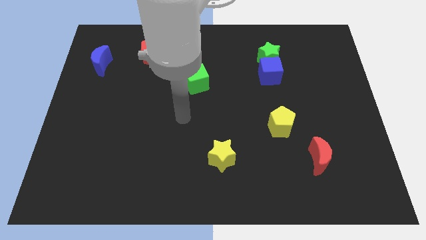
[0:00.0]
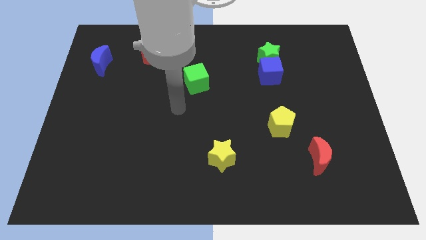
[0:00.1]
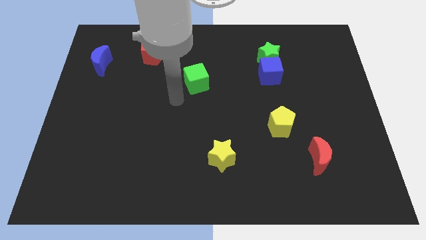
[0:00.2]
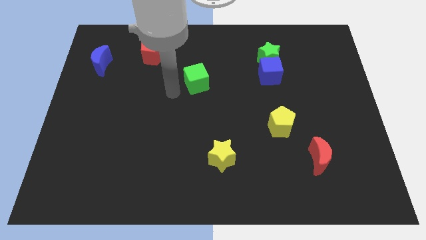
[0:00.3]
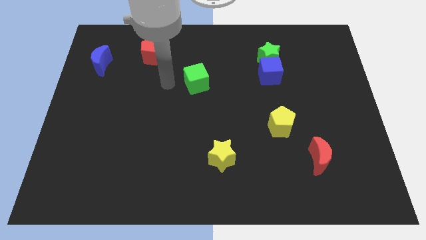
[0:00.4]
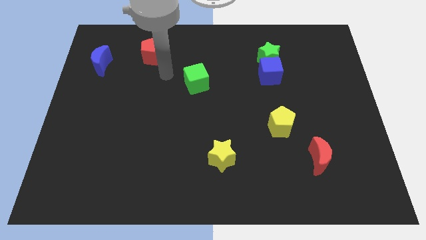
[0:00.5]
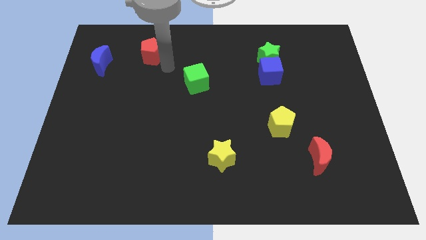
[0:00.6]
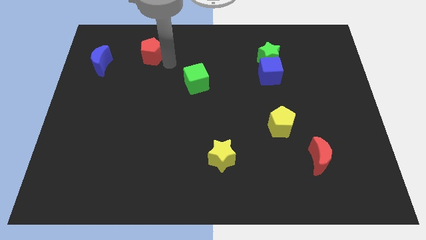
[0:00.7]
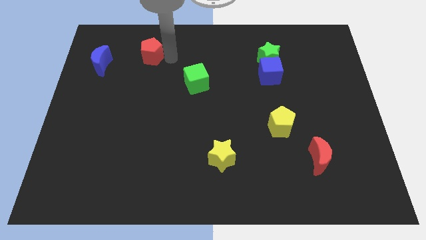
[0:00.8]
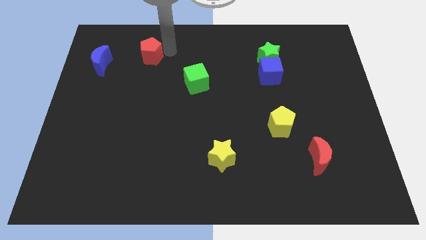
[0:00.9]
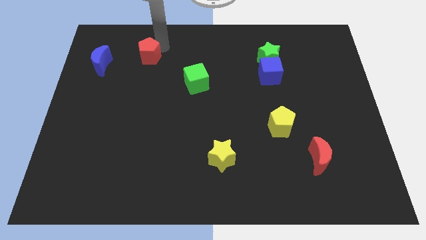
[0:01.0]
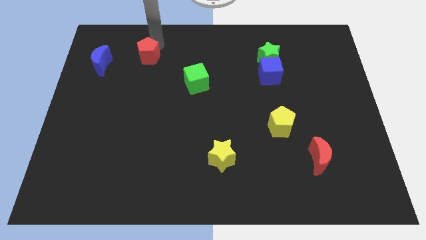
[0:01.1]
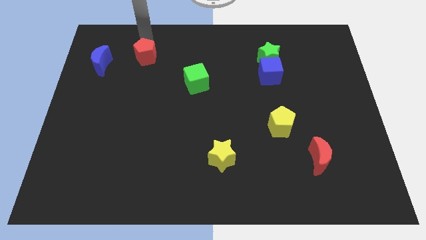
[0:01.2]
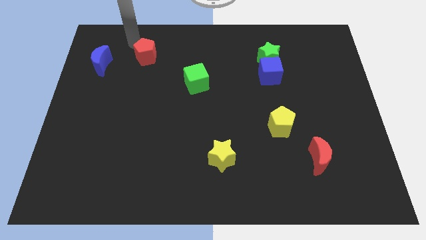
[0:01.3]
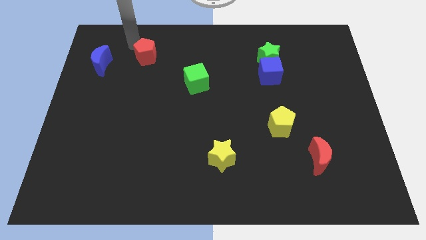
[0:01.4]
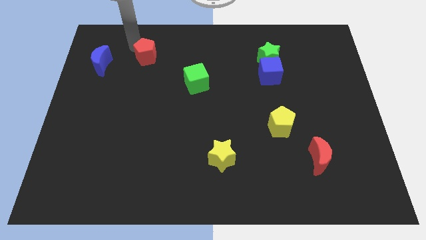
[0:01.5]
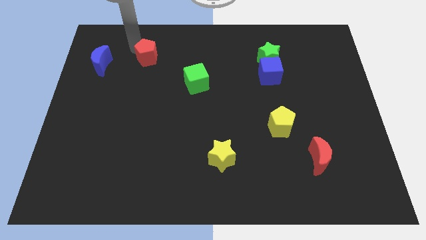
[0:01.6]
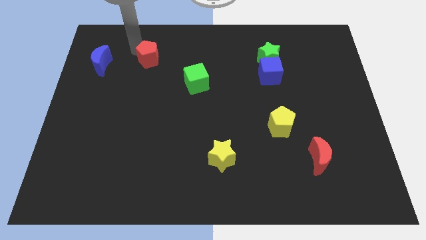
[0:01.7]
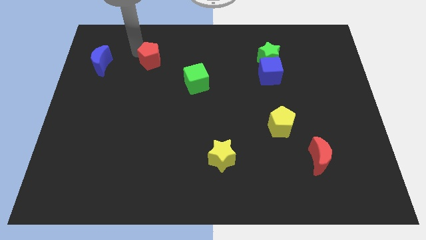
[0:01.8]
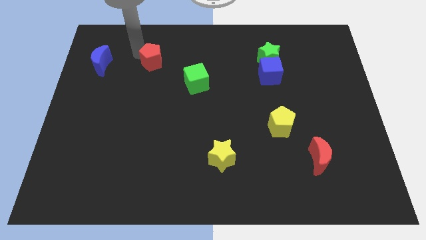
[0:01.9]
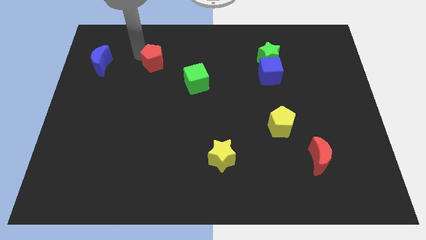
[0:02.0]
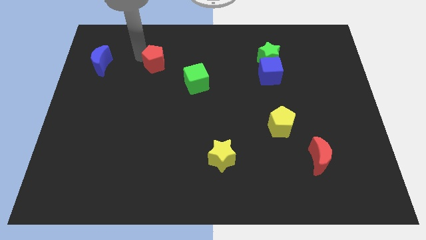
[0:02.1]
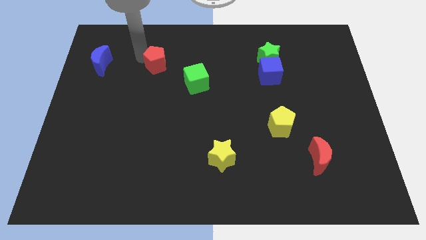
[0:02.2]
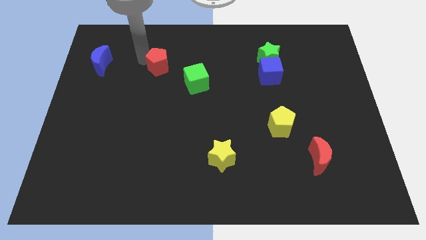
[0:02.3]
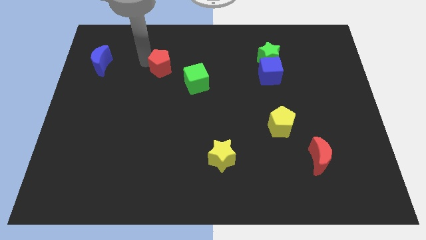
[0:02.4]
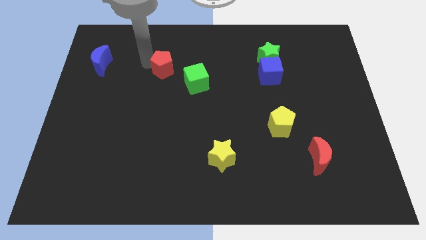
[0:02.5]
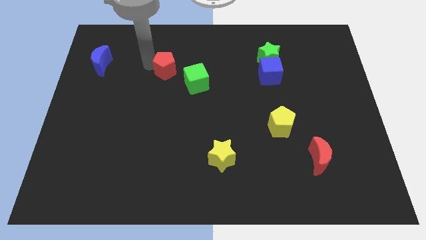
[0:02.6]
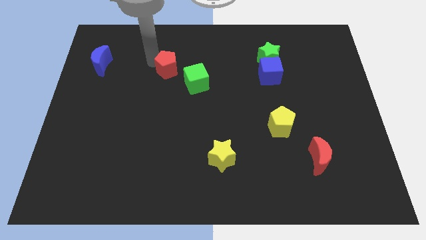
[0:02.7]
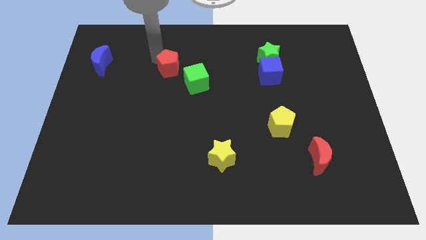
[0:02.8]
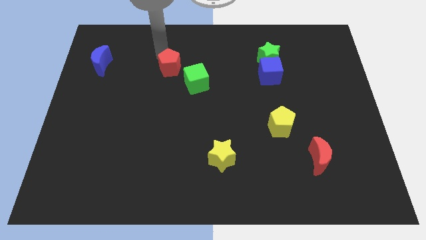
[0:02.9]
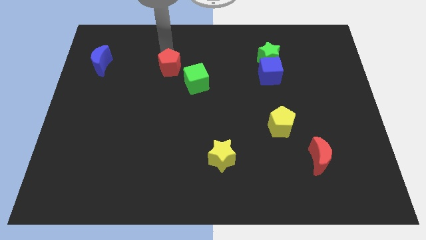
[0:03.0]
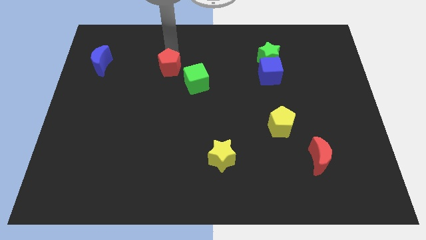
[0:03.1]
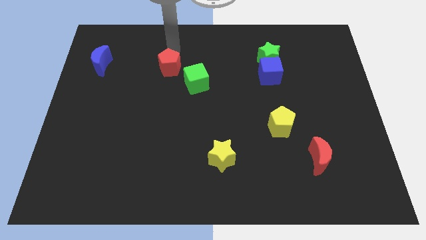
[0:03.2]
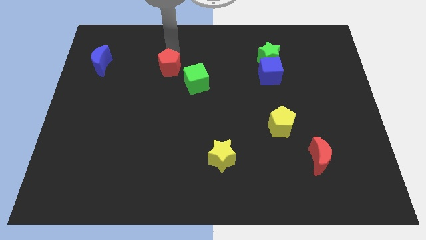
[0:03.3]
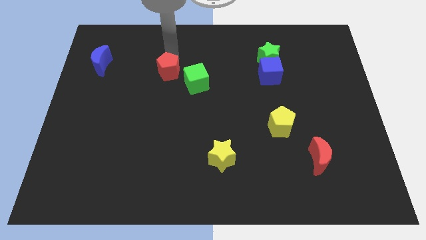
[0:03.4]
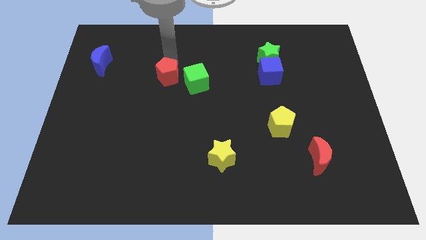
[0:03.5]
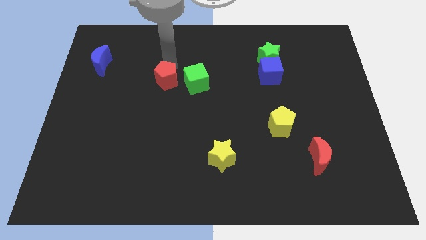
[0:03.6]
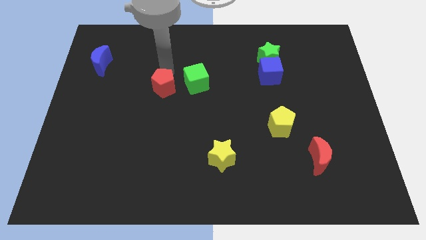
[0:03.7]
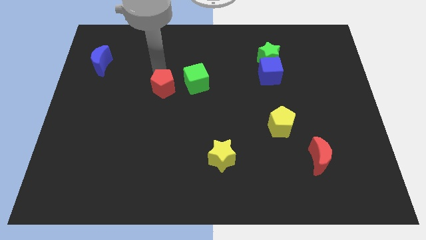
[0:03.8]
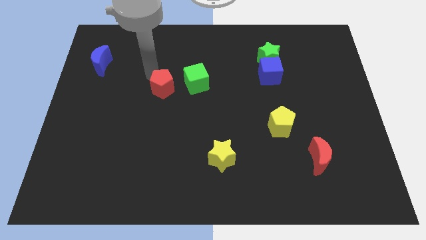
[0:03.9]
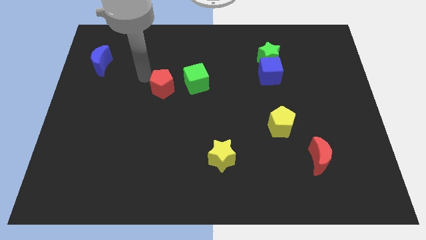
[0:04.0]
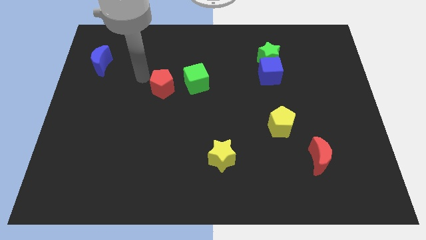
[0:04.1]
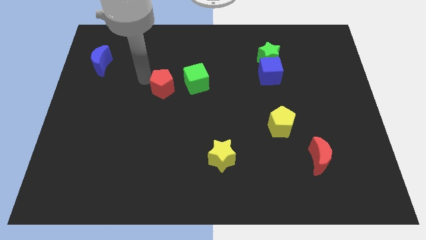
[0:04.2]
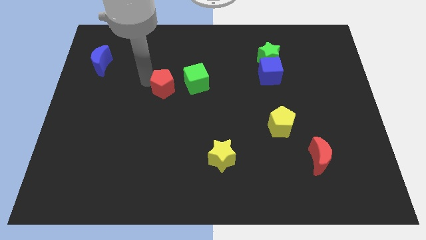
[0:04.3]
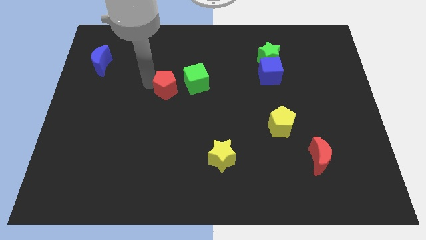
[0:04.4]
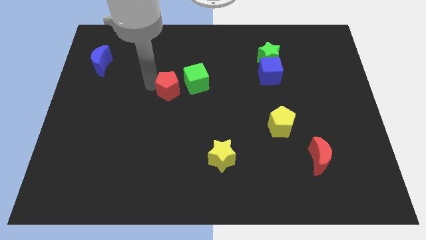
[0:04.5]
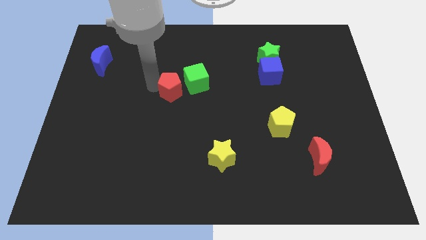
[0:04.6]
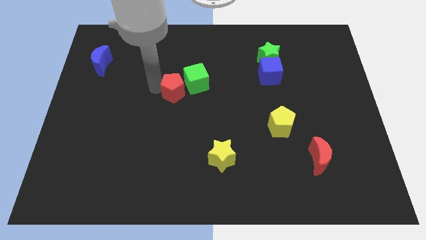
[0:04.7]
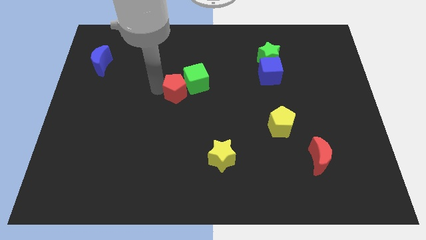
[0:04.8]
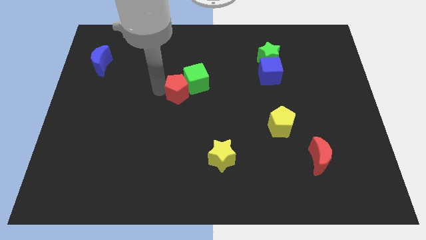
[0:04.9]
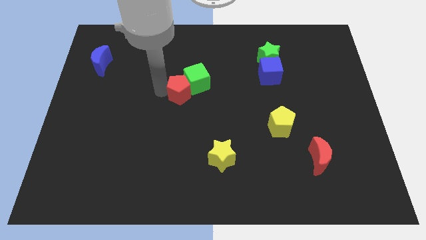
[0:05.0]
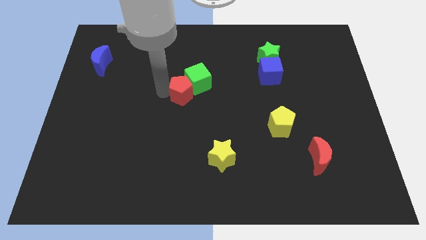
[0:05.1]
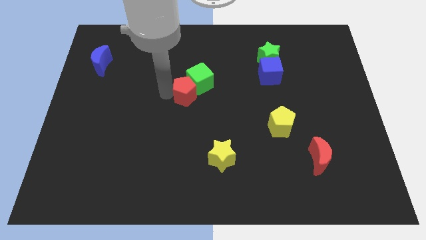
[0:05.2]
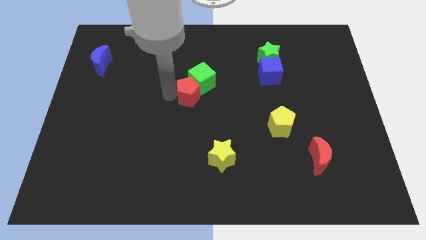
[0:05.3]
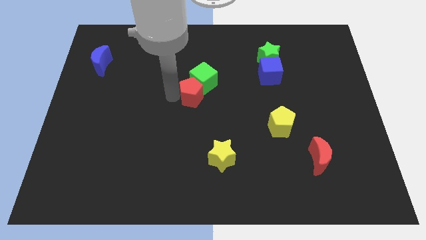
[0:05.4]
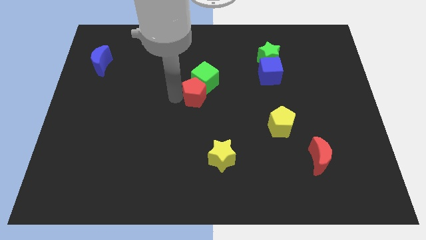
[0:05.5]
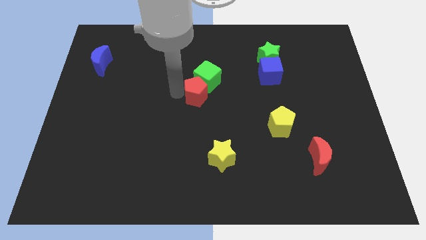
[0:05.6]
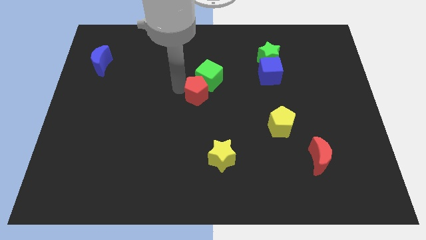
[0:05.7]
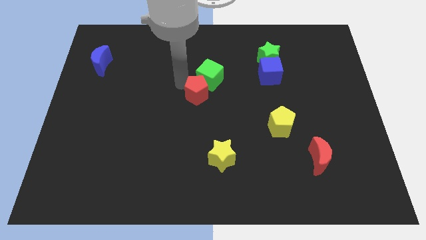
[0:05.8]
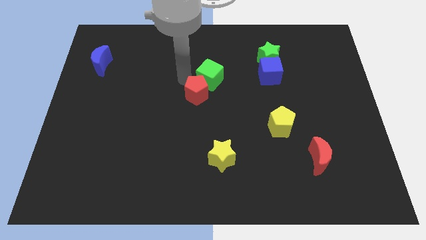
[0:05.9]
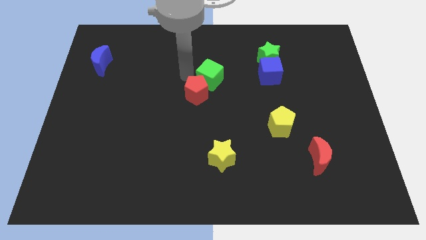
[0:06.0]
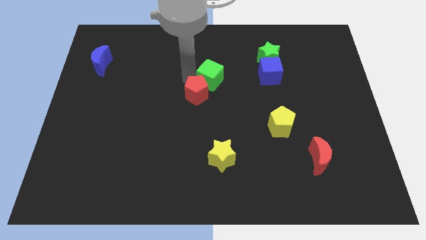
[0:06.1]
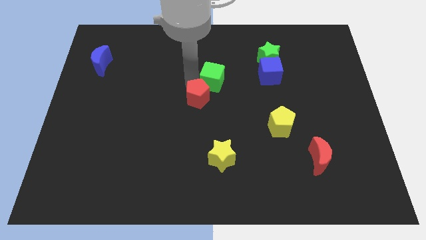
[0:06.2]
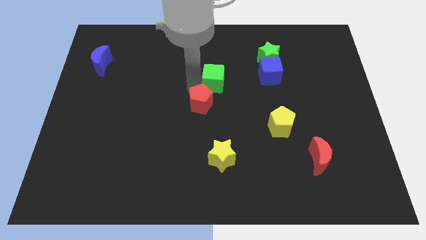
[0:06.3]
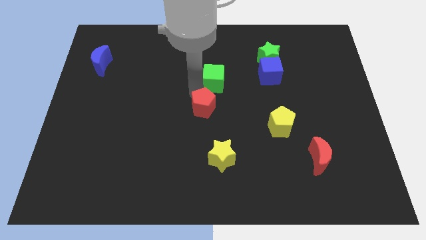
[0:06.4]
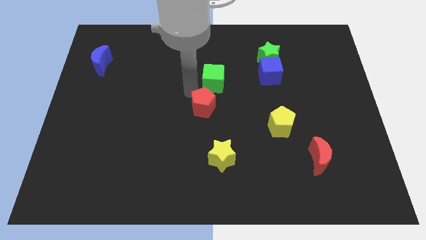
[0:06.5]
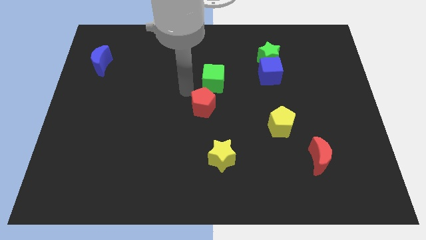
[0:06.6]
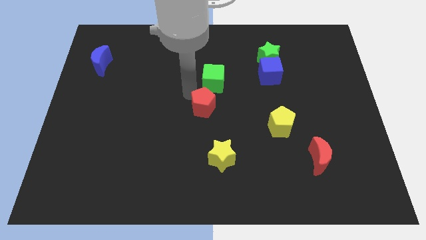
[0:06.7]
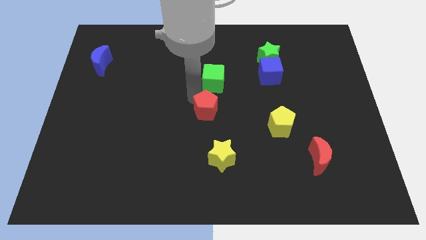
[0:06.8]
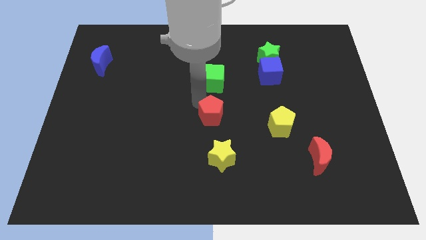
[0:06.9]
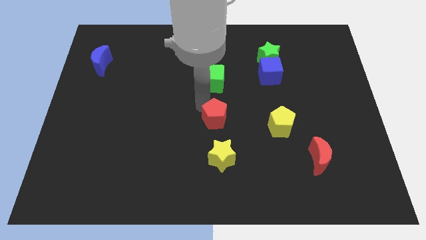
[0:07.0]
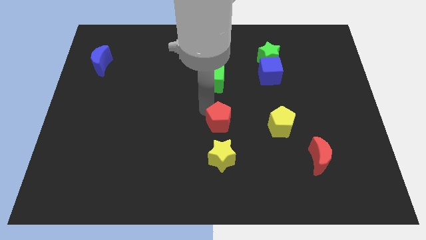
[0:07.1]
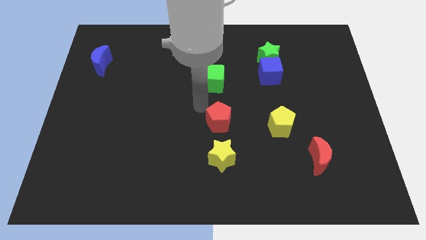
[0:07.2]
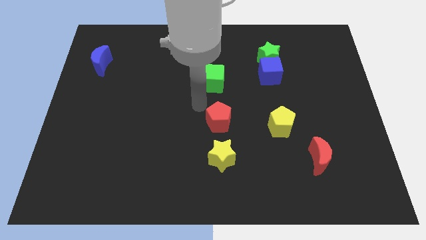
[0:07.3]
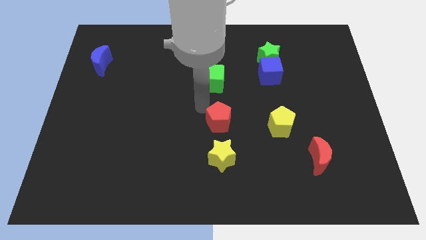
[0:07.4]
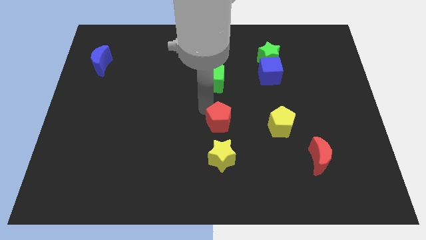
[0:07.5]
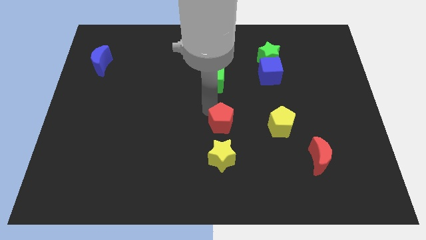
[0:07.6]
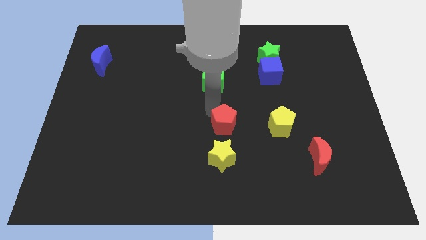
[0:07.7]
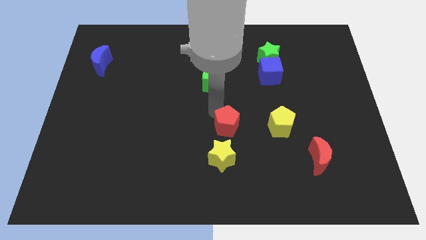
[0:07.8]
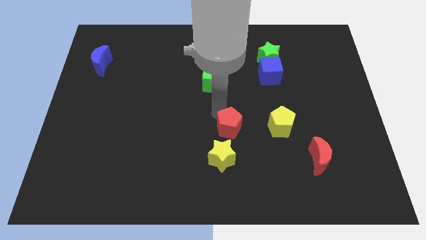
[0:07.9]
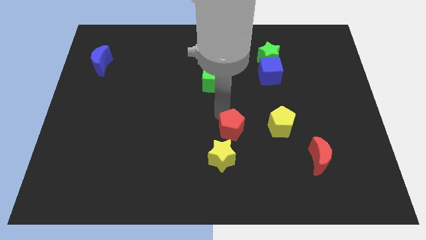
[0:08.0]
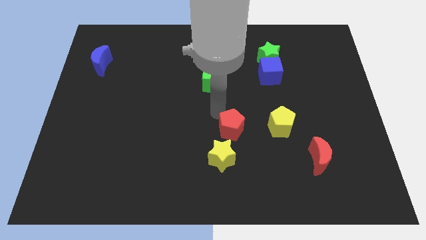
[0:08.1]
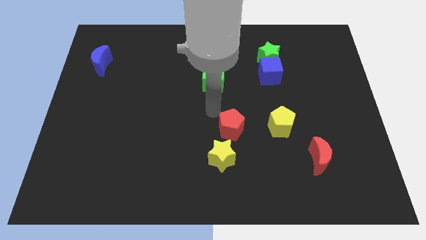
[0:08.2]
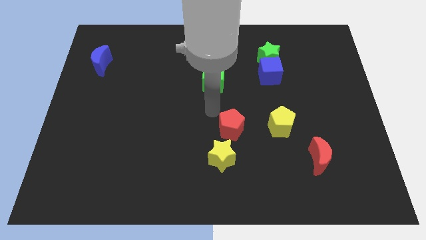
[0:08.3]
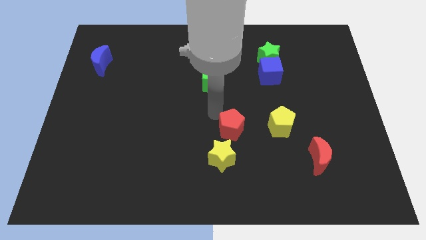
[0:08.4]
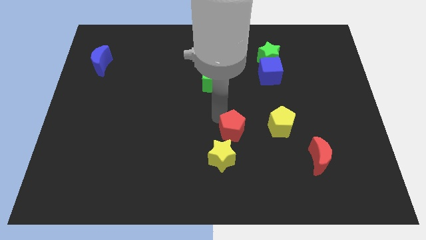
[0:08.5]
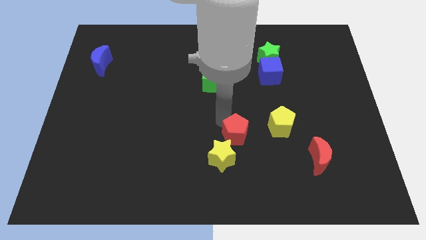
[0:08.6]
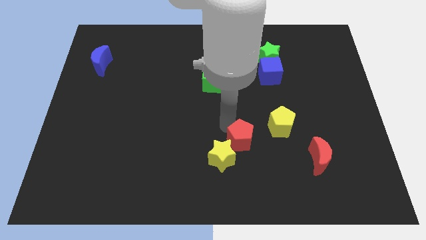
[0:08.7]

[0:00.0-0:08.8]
push the red pentagon to the bottom left side of the yellow pentagon
